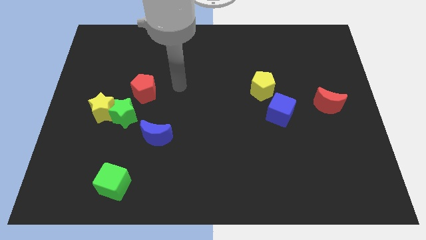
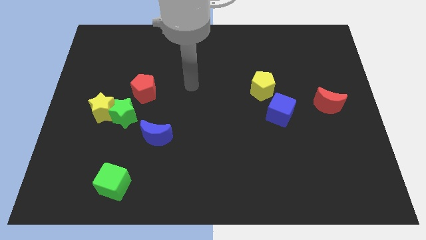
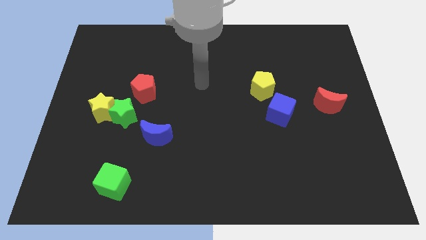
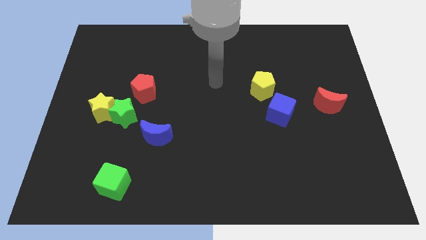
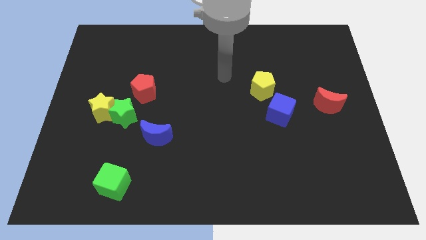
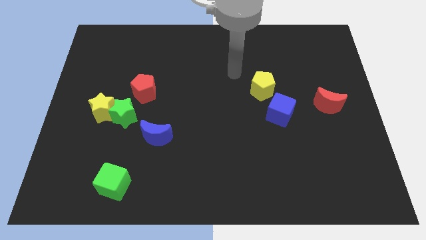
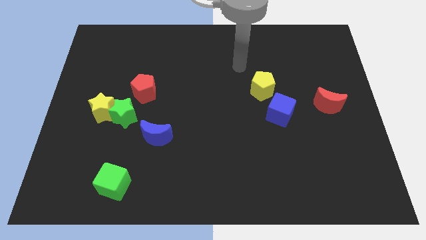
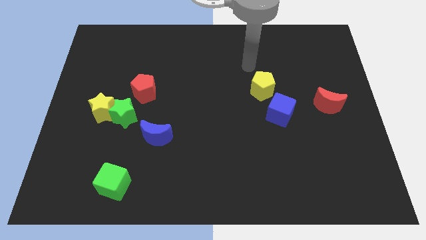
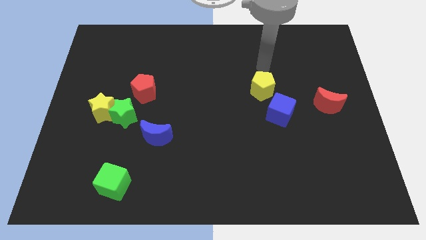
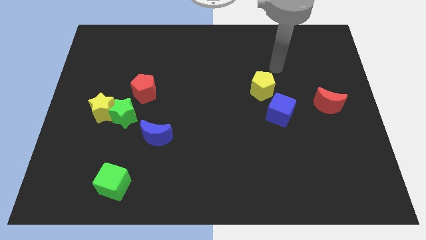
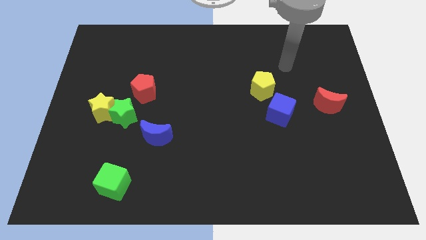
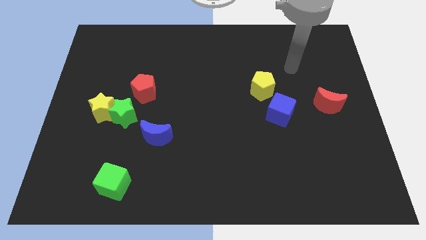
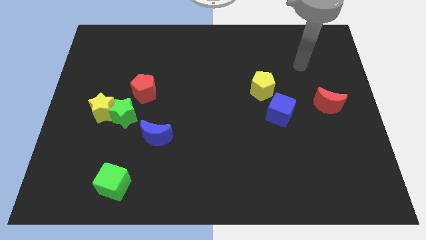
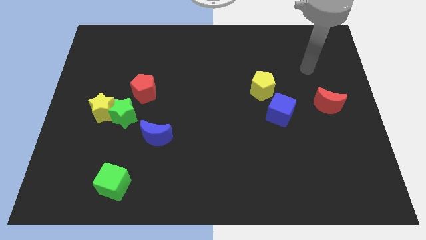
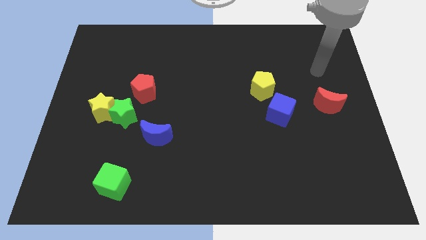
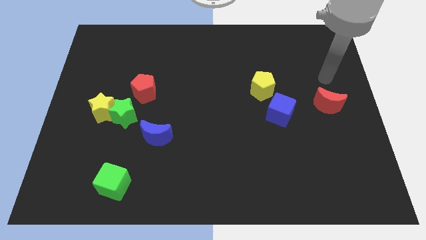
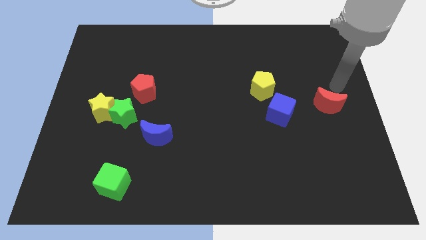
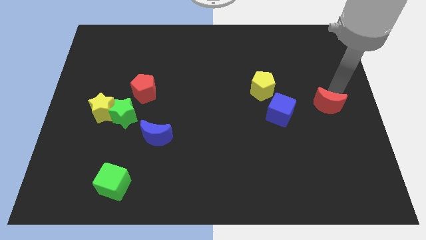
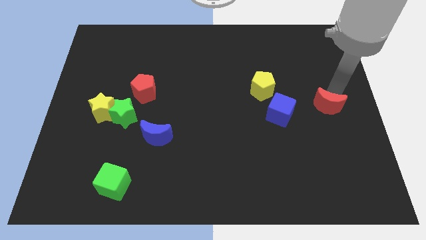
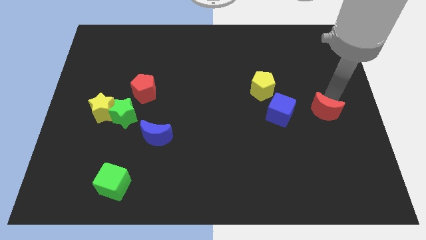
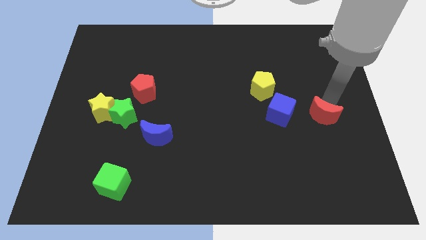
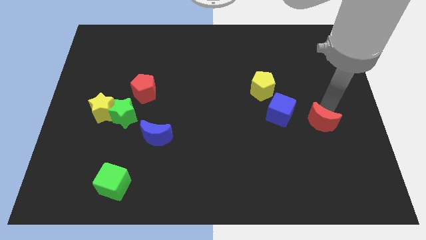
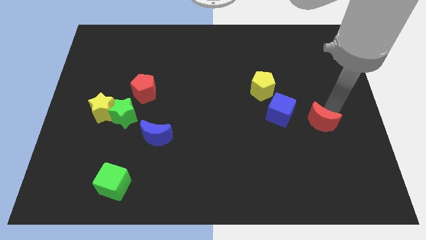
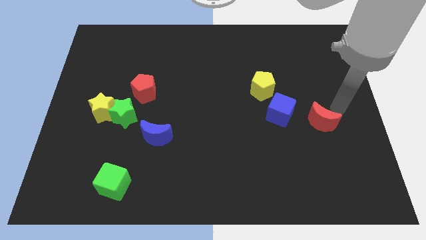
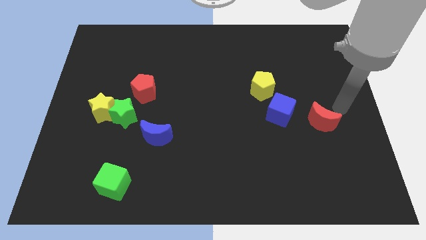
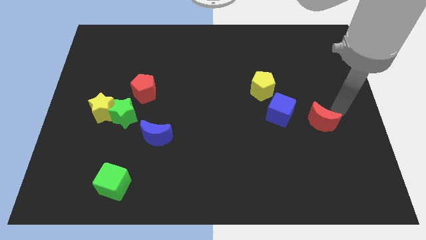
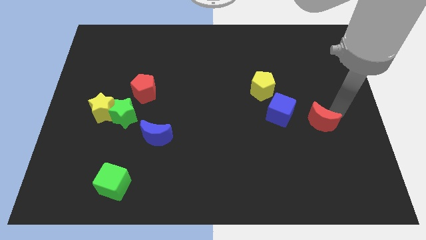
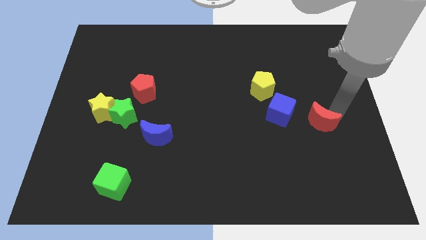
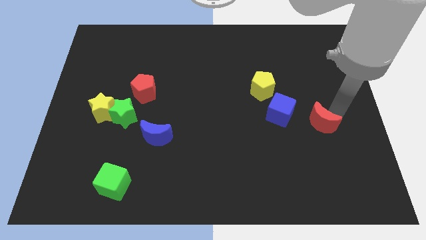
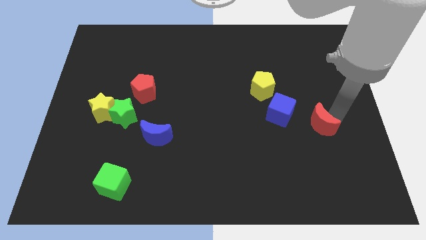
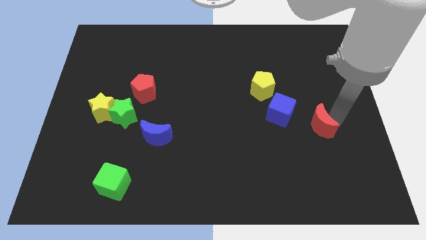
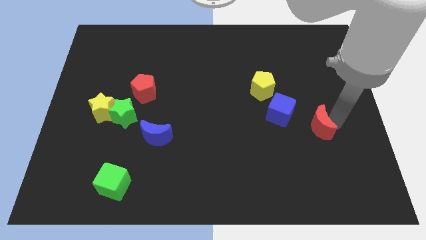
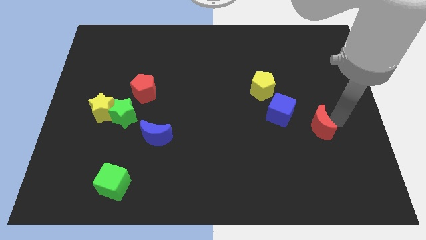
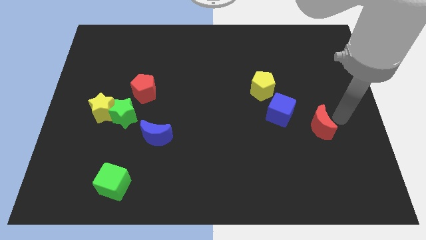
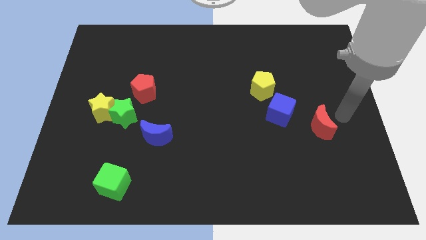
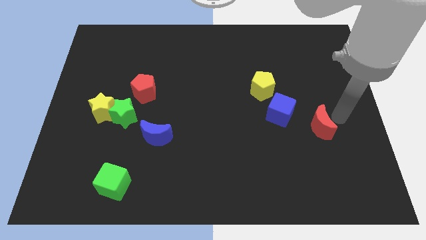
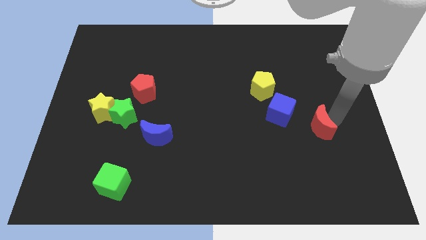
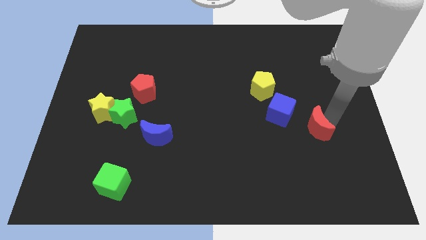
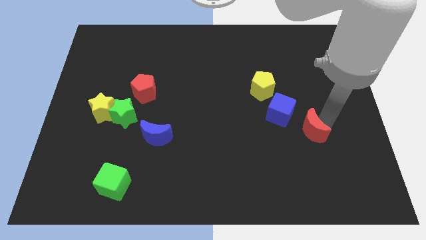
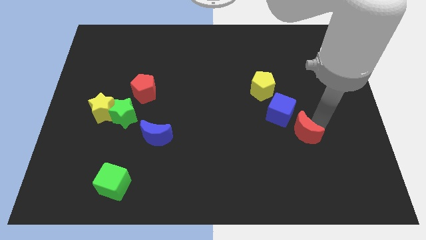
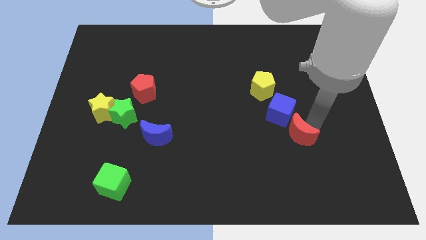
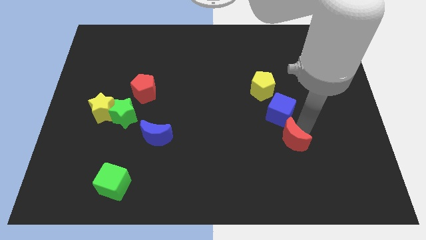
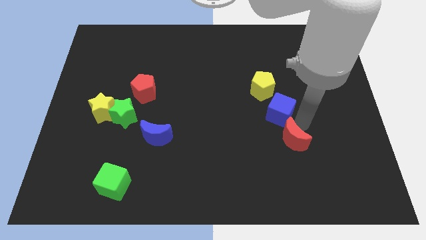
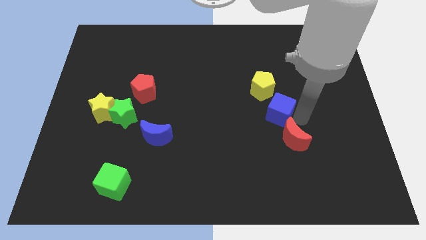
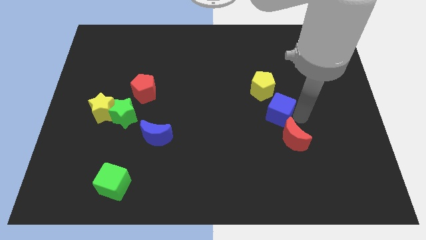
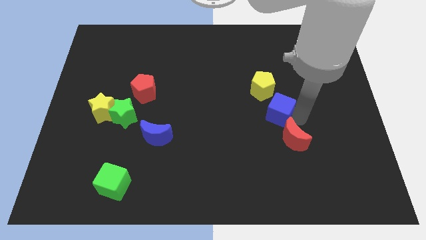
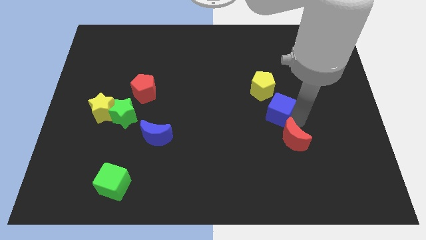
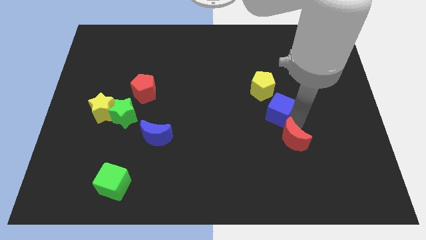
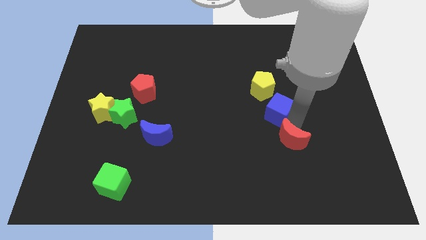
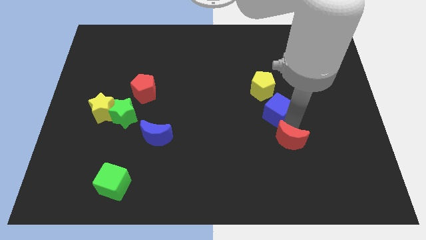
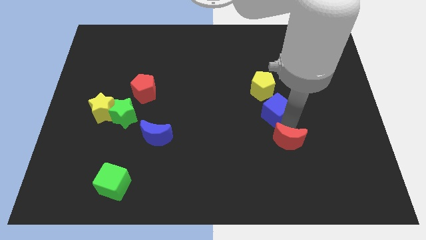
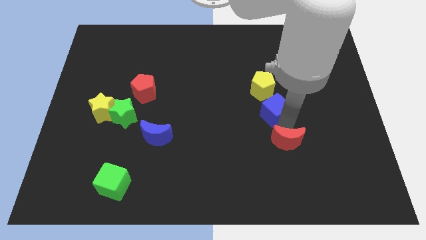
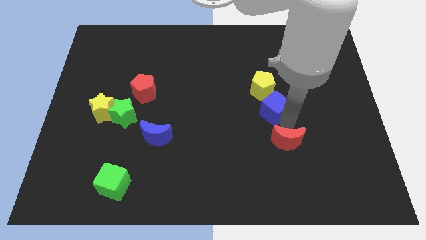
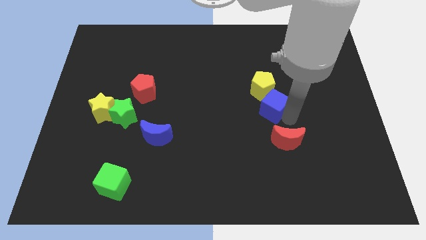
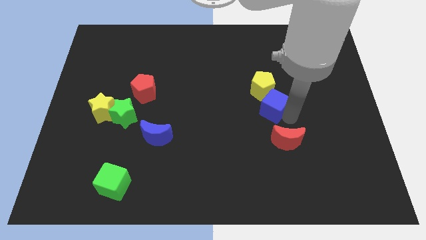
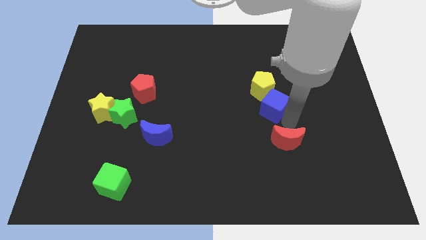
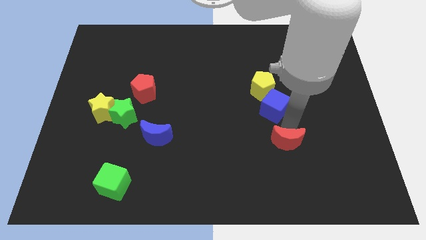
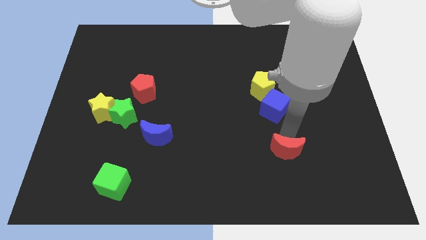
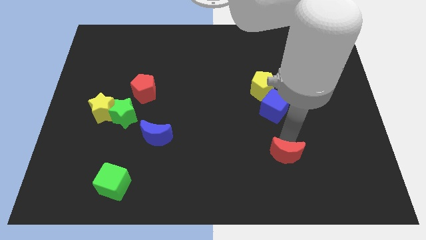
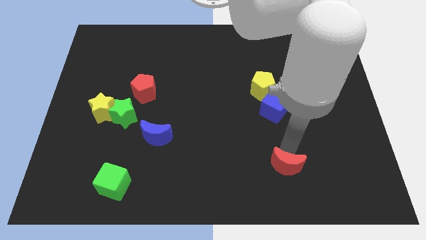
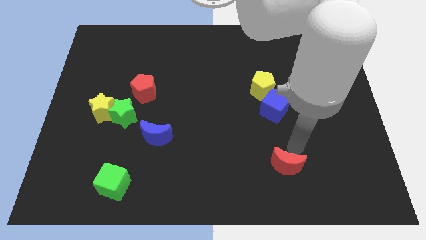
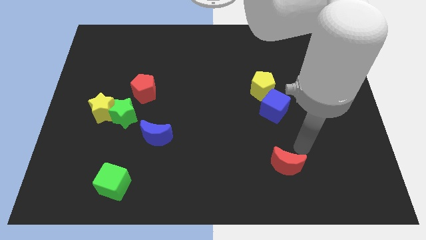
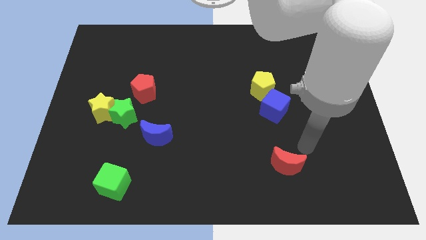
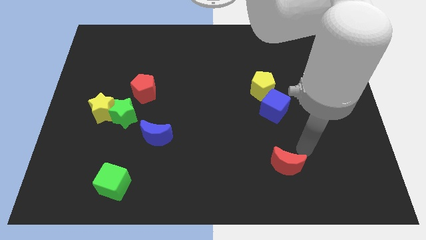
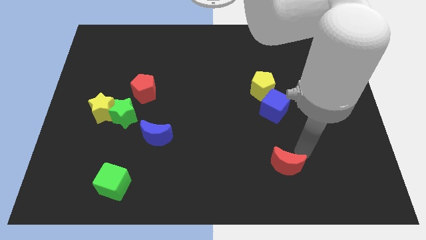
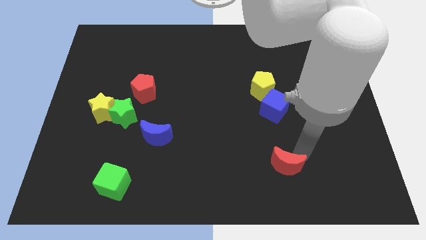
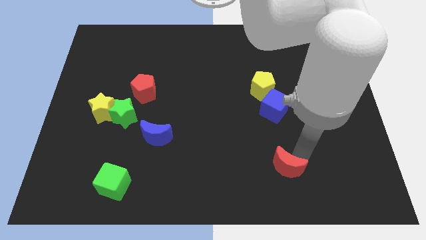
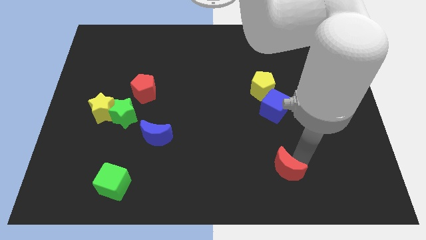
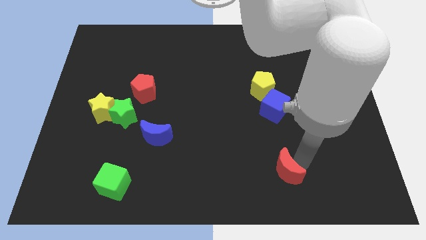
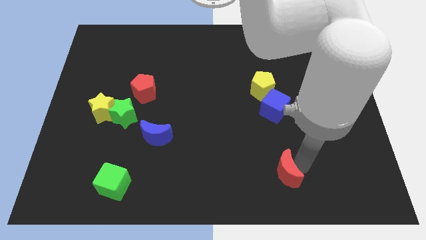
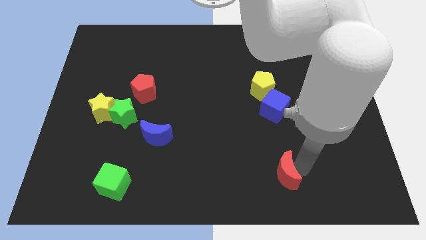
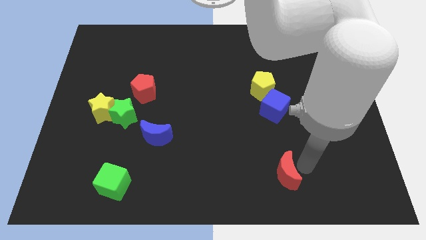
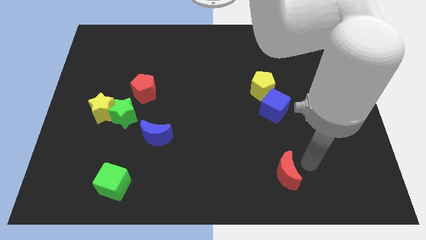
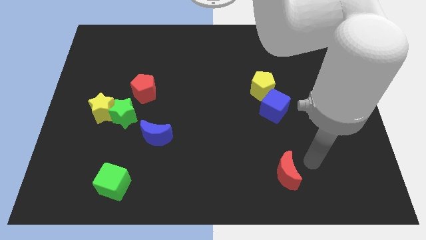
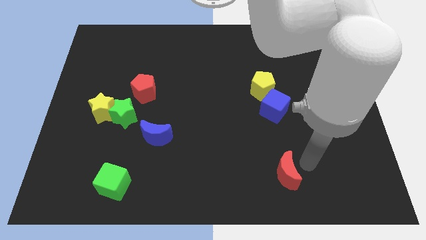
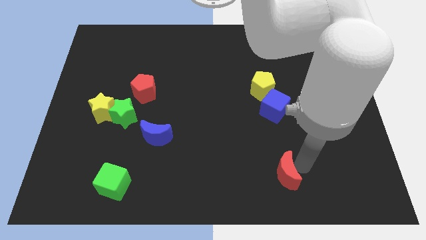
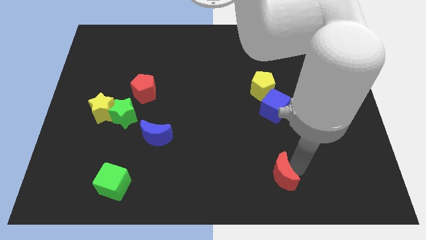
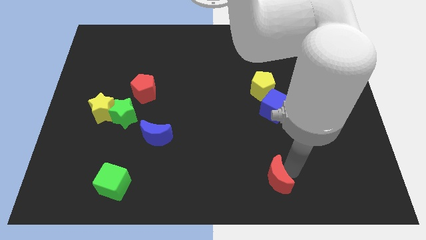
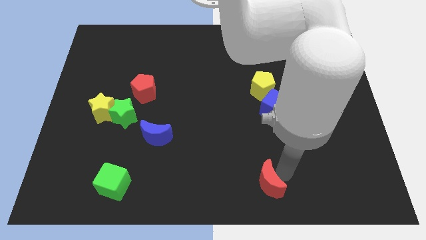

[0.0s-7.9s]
move the red moon to the bottom
